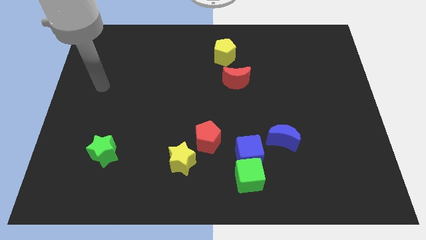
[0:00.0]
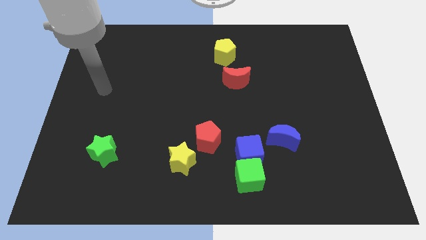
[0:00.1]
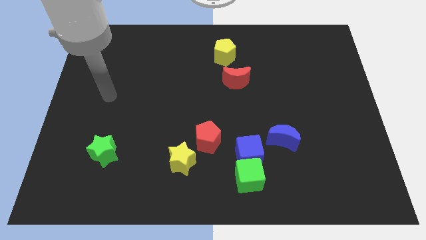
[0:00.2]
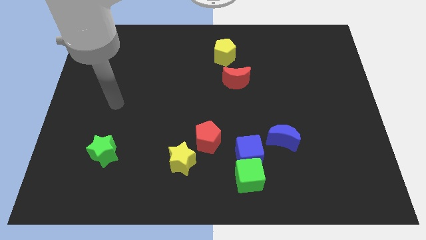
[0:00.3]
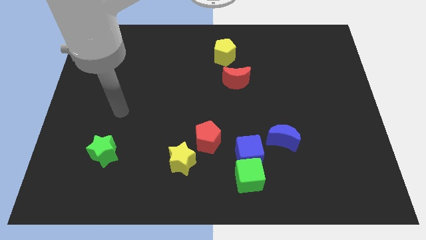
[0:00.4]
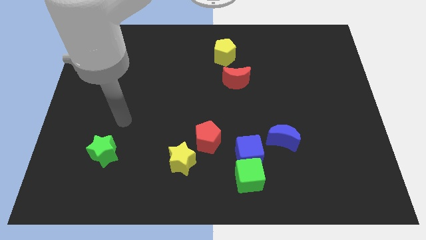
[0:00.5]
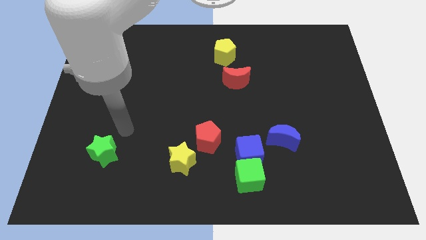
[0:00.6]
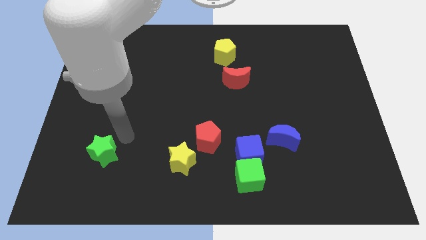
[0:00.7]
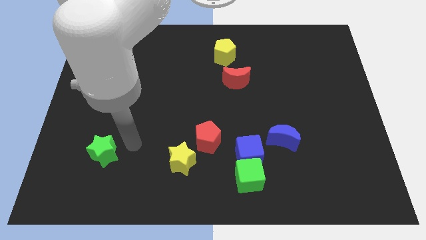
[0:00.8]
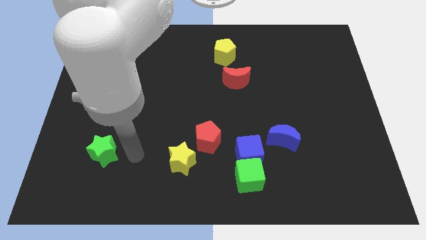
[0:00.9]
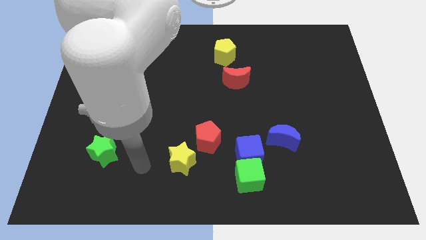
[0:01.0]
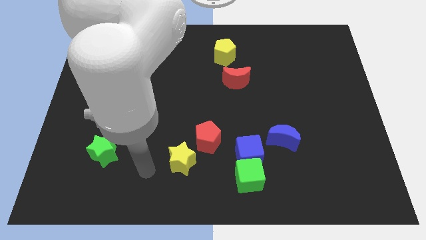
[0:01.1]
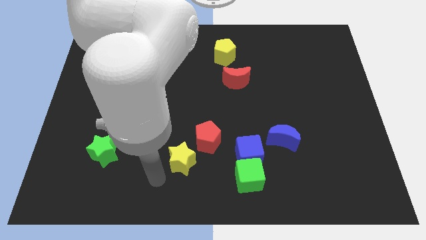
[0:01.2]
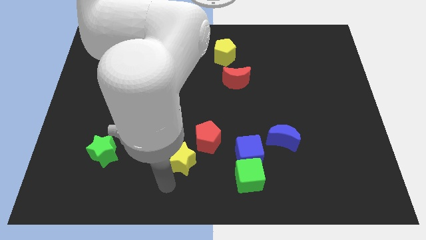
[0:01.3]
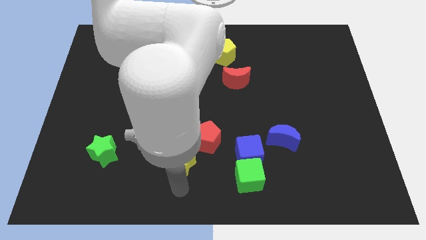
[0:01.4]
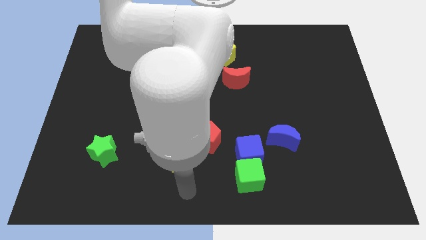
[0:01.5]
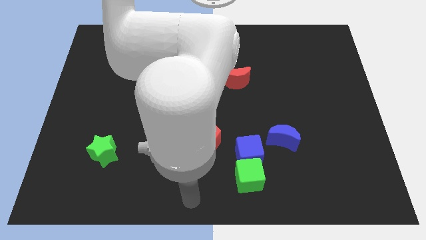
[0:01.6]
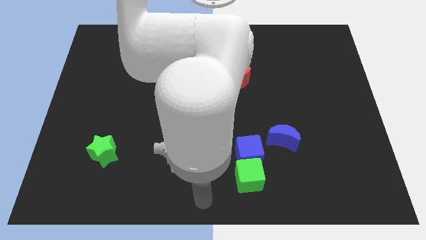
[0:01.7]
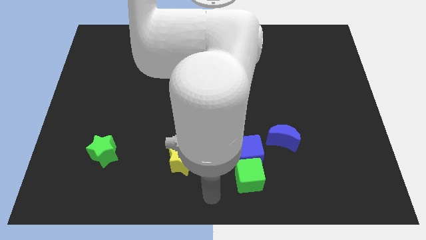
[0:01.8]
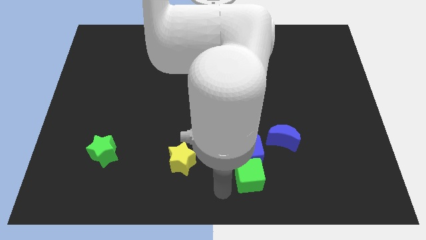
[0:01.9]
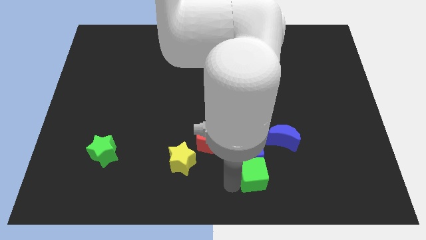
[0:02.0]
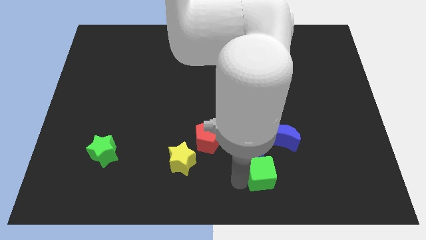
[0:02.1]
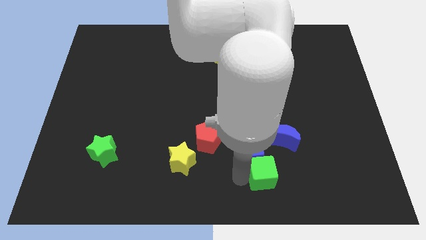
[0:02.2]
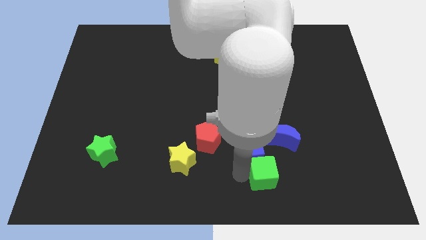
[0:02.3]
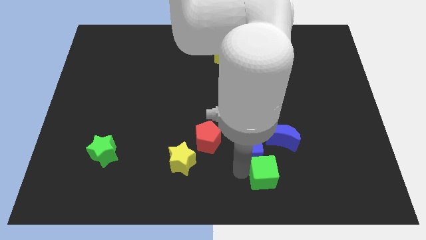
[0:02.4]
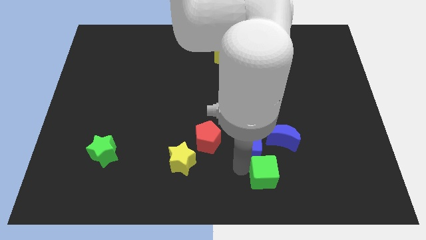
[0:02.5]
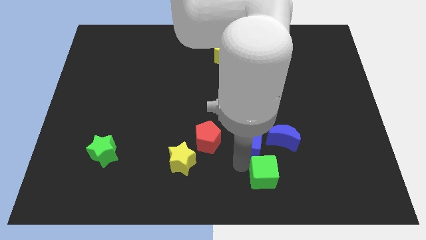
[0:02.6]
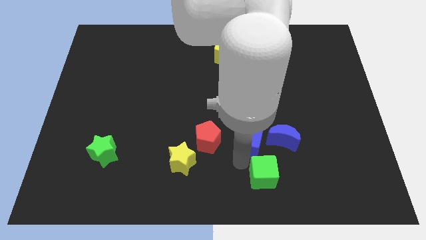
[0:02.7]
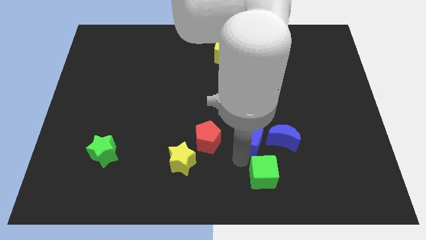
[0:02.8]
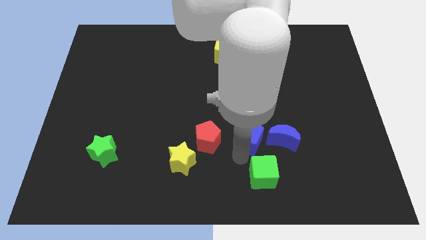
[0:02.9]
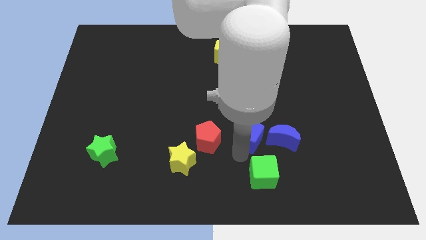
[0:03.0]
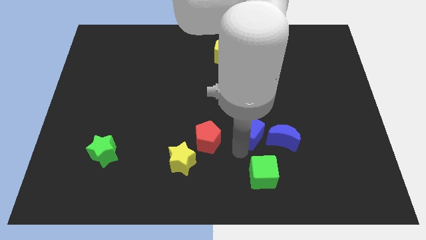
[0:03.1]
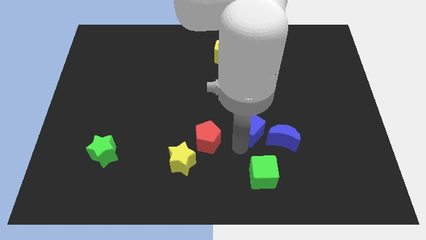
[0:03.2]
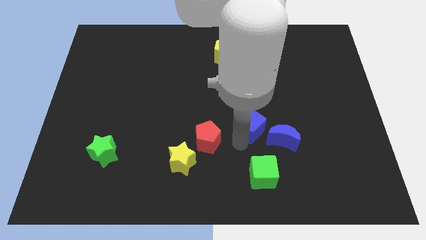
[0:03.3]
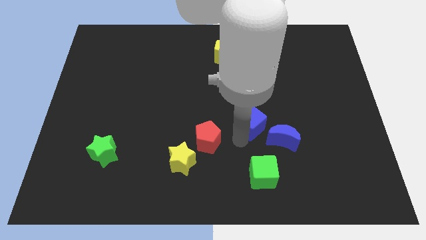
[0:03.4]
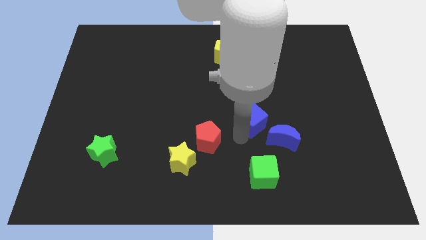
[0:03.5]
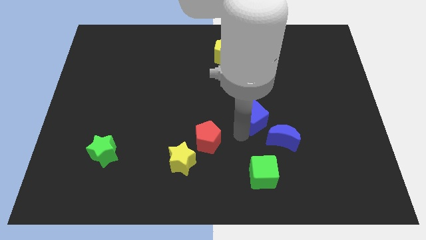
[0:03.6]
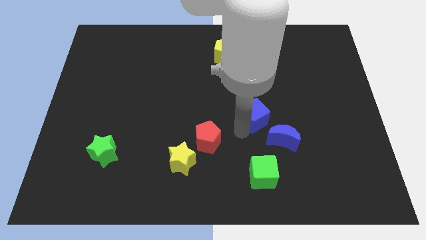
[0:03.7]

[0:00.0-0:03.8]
slide the blue cube upwards and then to the right a little bit

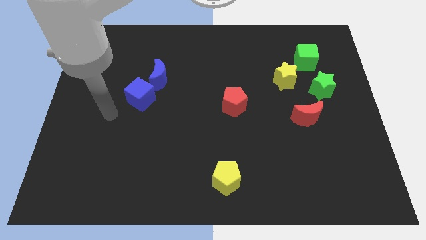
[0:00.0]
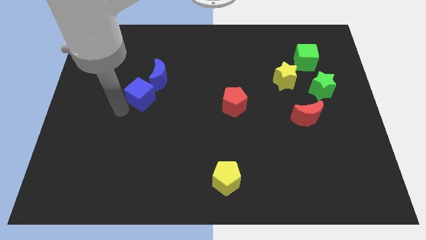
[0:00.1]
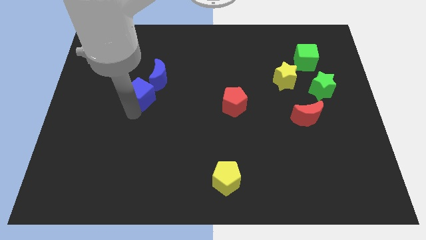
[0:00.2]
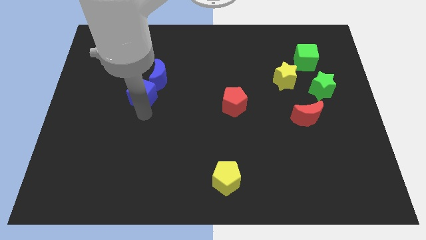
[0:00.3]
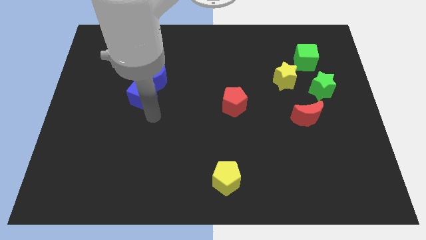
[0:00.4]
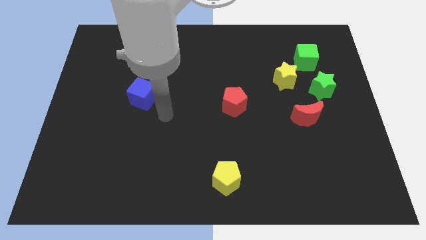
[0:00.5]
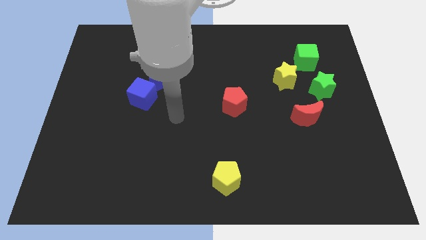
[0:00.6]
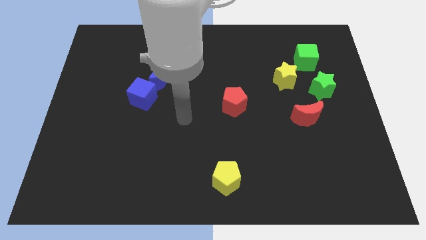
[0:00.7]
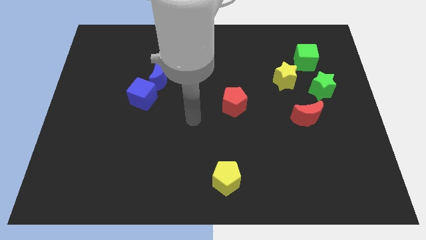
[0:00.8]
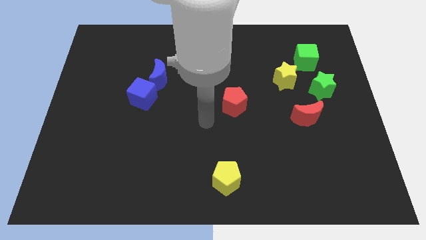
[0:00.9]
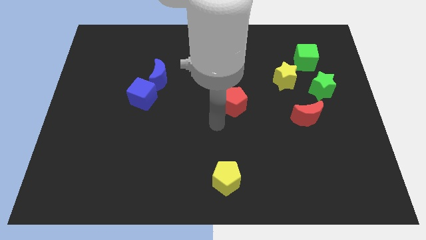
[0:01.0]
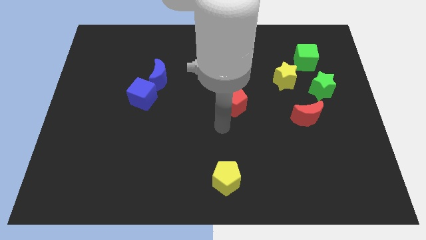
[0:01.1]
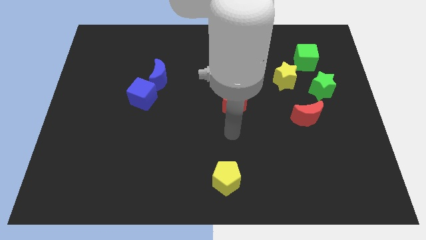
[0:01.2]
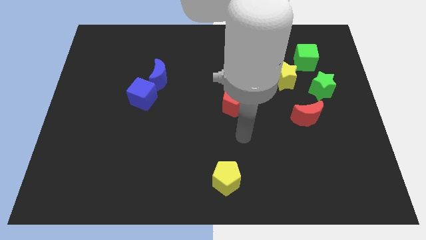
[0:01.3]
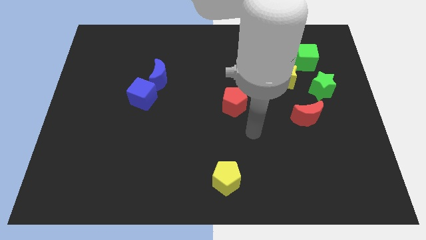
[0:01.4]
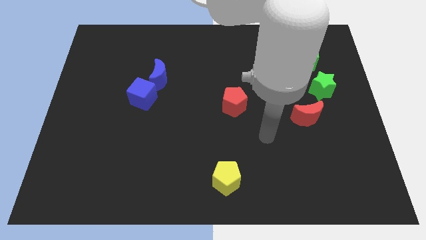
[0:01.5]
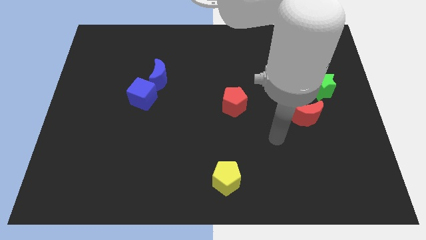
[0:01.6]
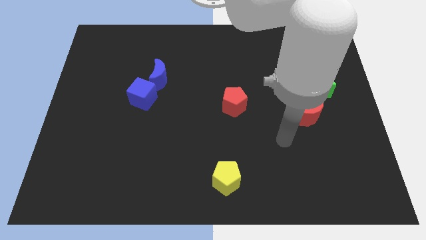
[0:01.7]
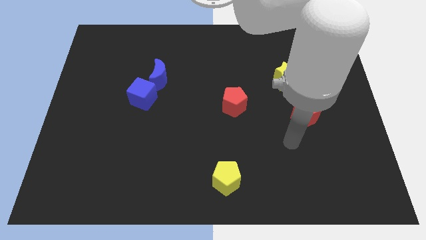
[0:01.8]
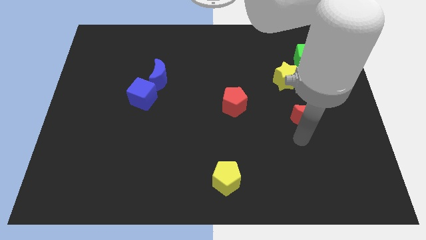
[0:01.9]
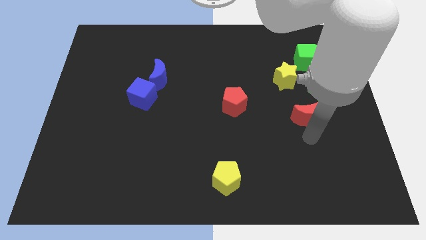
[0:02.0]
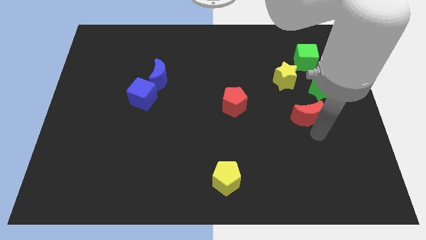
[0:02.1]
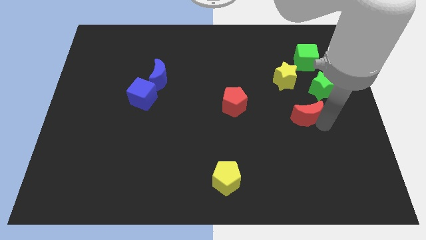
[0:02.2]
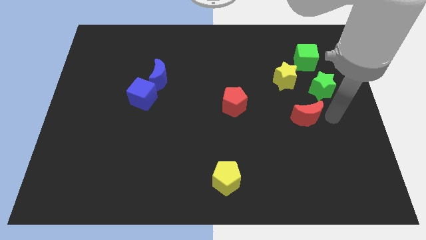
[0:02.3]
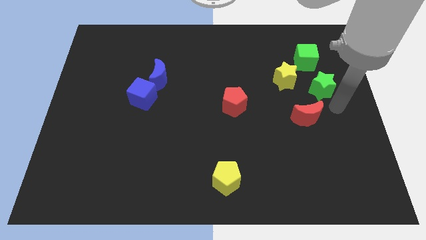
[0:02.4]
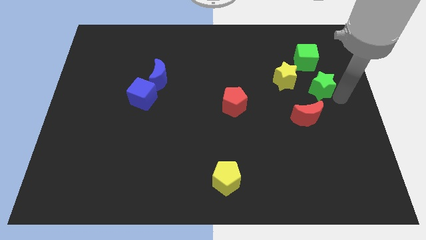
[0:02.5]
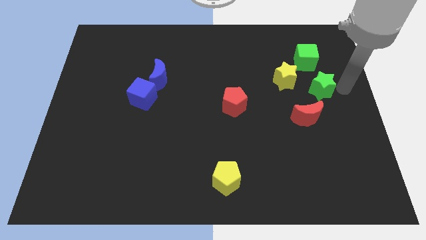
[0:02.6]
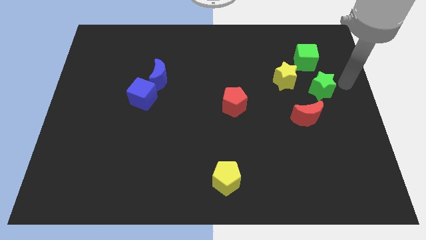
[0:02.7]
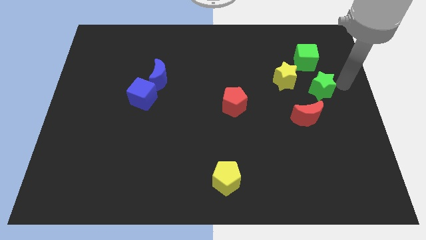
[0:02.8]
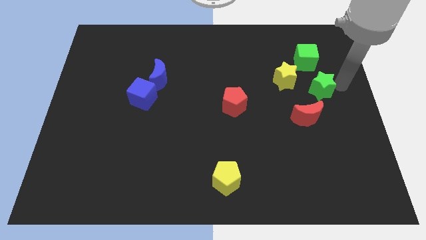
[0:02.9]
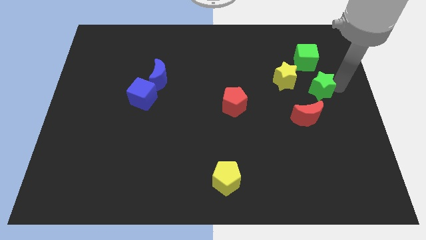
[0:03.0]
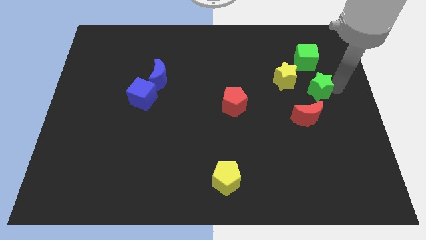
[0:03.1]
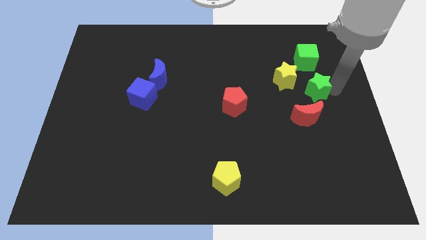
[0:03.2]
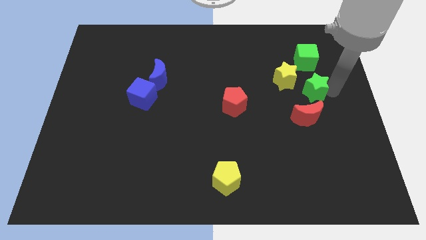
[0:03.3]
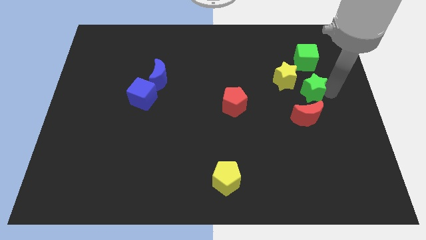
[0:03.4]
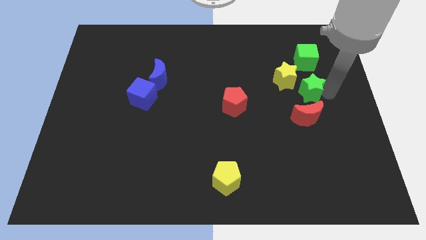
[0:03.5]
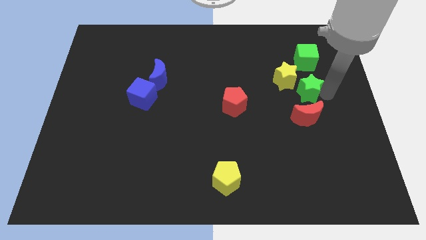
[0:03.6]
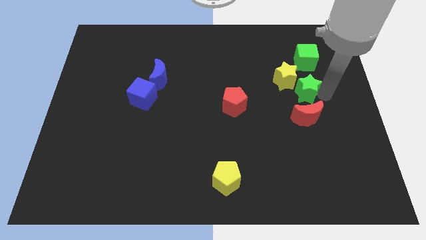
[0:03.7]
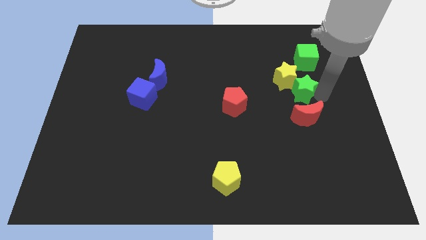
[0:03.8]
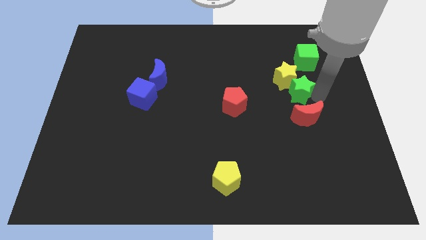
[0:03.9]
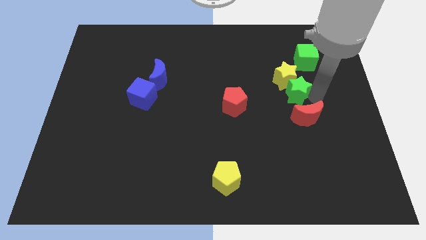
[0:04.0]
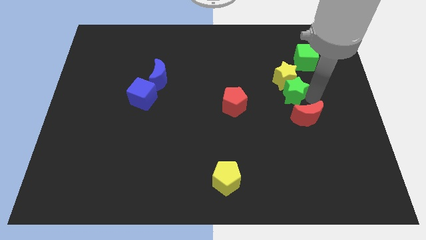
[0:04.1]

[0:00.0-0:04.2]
slide the green star a bit left
